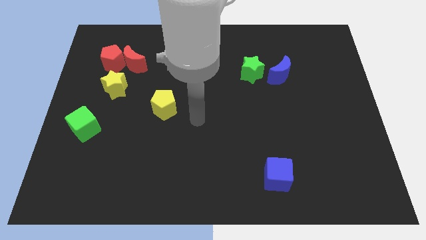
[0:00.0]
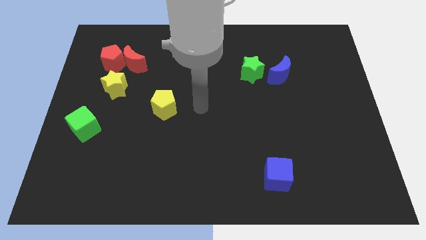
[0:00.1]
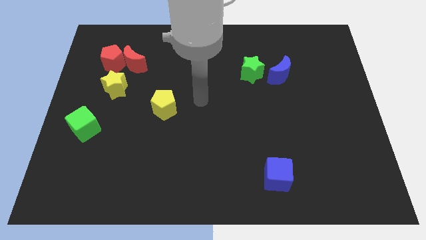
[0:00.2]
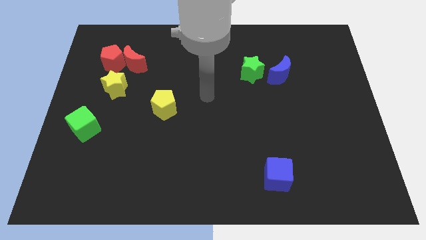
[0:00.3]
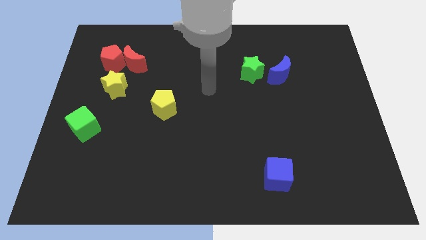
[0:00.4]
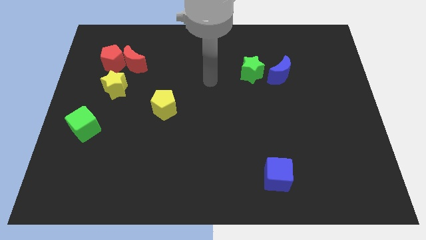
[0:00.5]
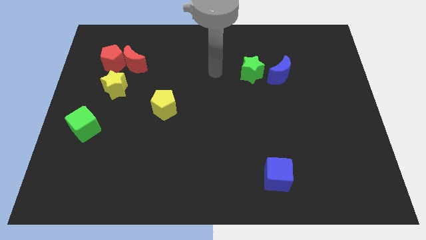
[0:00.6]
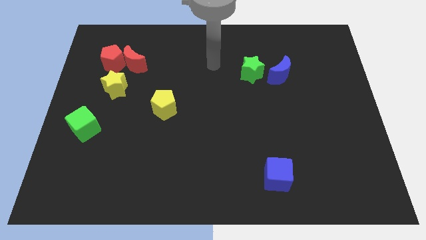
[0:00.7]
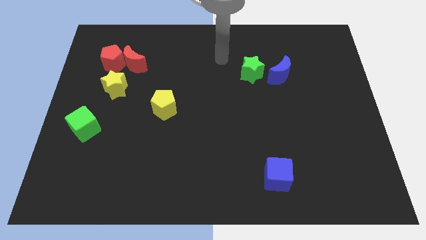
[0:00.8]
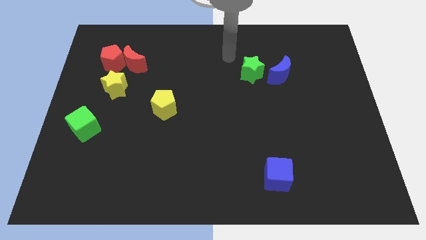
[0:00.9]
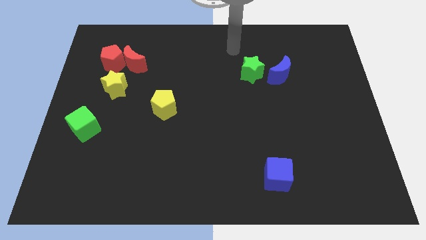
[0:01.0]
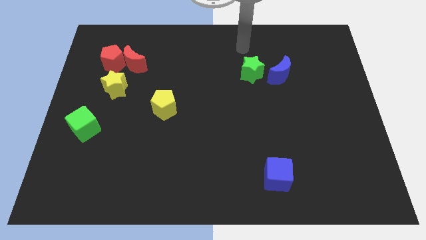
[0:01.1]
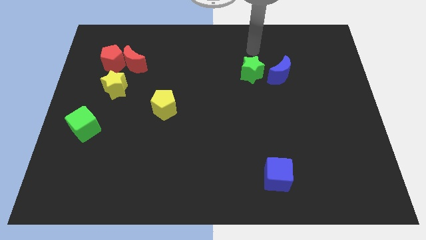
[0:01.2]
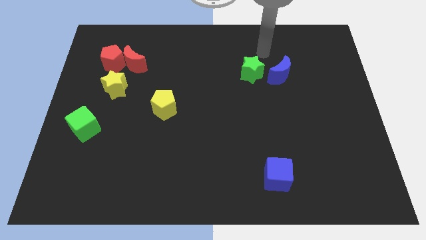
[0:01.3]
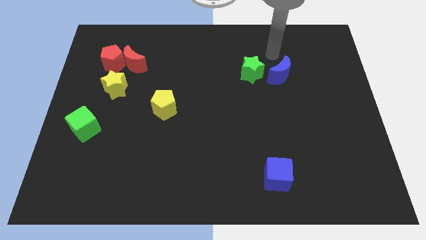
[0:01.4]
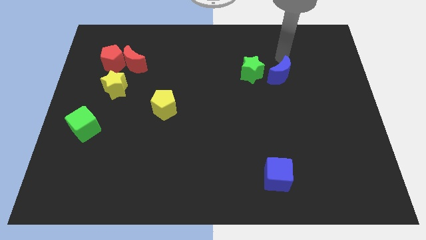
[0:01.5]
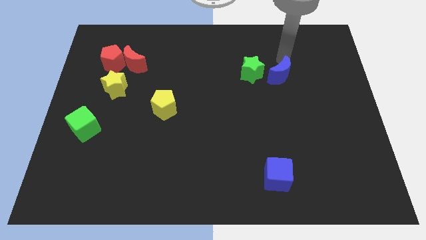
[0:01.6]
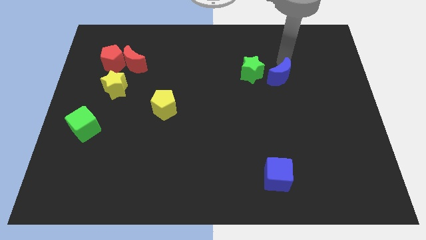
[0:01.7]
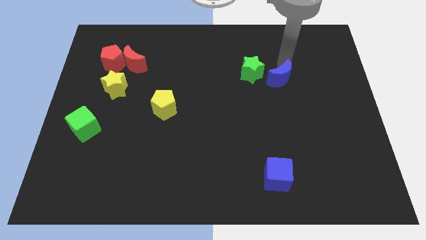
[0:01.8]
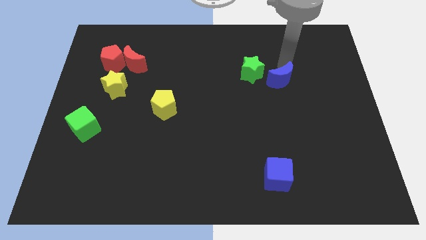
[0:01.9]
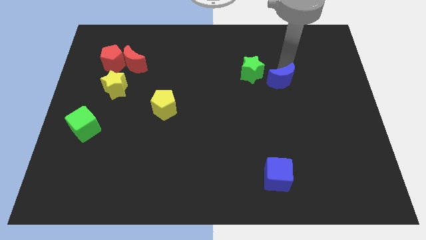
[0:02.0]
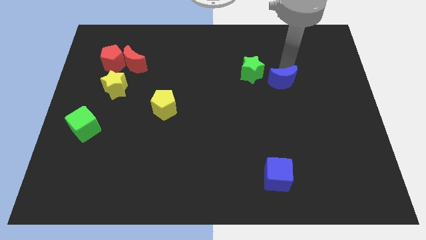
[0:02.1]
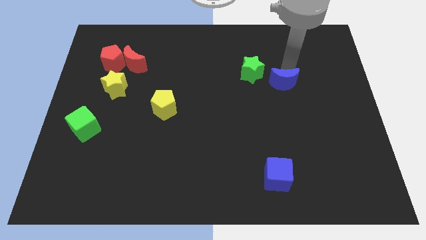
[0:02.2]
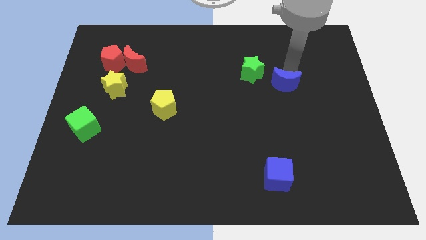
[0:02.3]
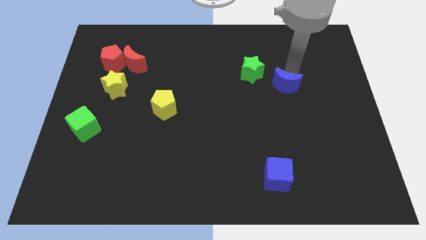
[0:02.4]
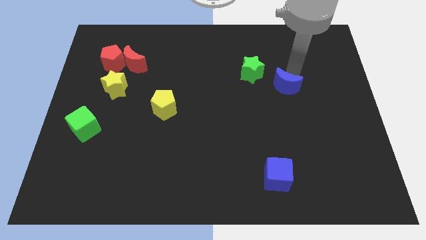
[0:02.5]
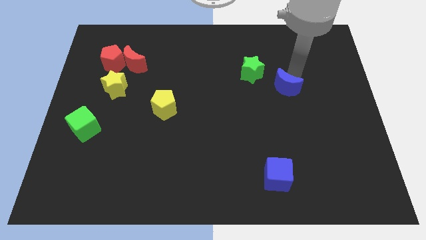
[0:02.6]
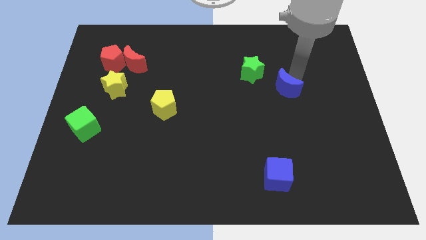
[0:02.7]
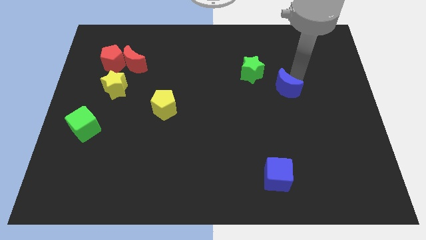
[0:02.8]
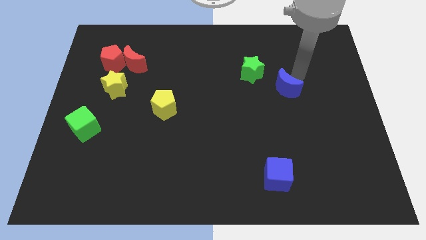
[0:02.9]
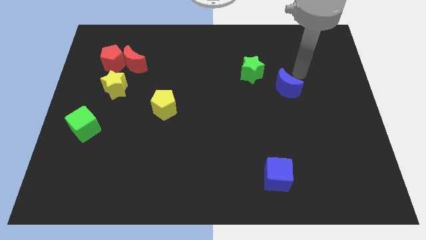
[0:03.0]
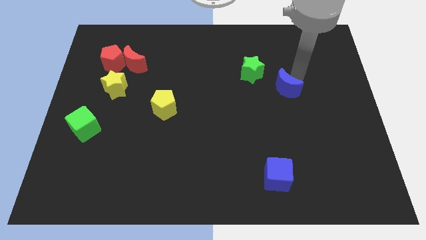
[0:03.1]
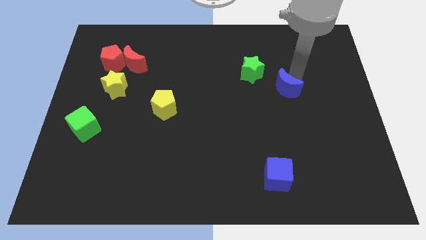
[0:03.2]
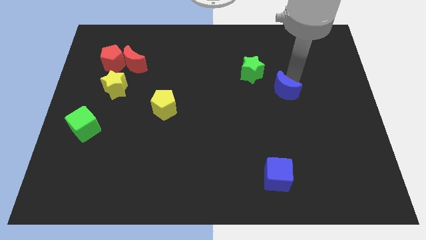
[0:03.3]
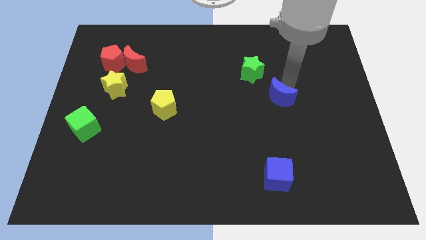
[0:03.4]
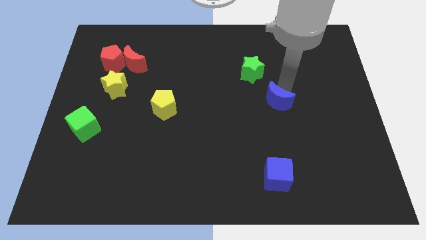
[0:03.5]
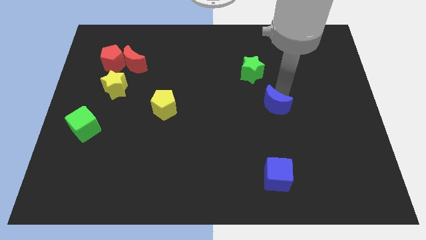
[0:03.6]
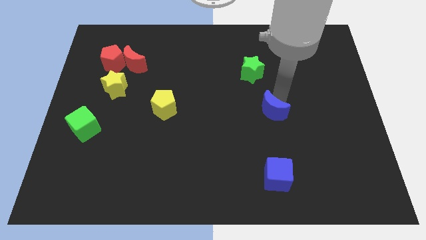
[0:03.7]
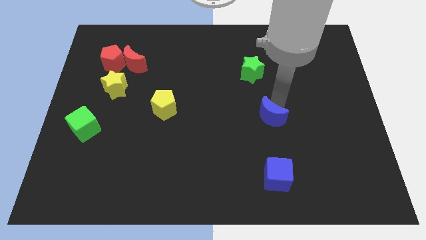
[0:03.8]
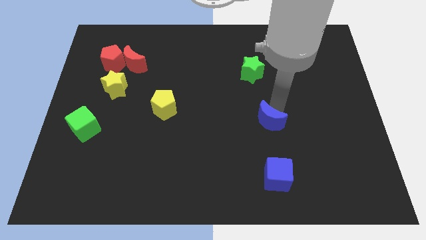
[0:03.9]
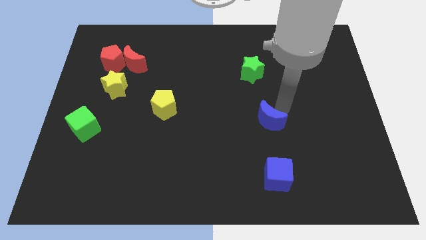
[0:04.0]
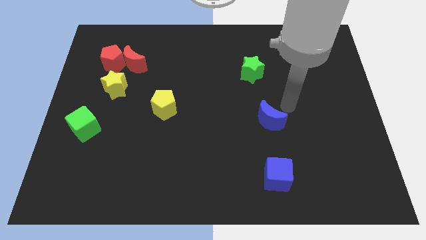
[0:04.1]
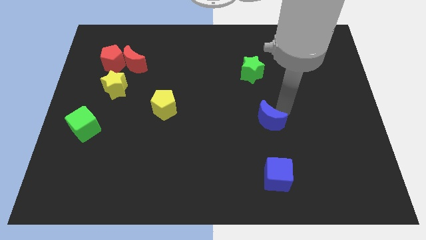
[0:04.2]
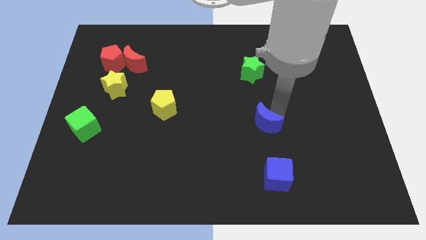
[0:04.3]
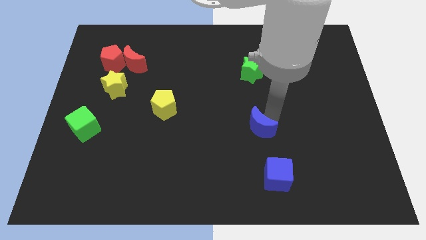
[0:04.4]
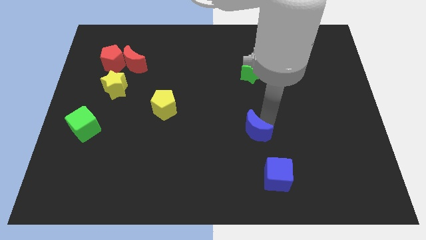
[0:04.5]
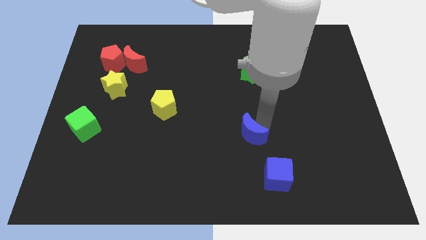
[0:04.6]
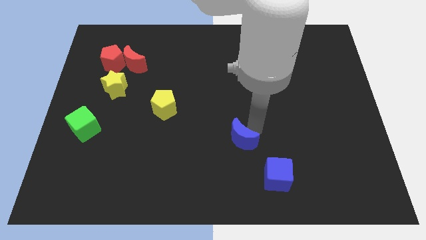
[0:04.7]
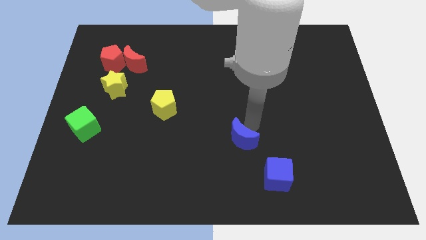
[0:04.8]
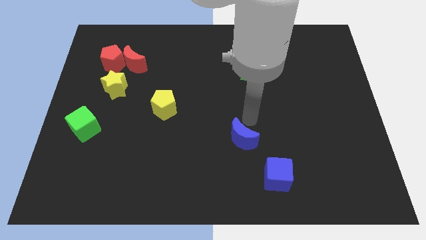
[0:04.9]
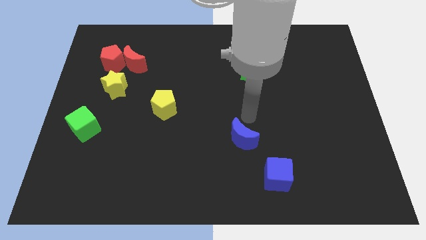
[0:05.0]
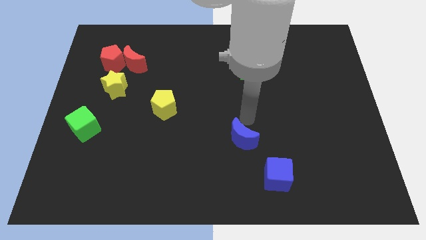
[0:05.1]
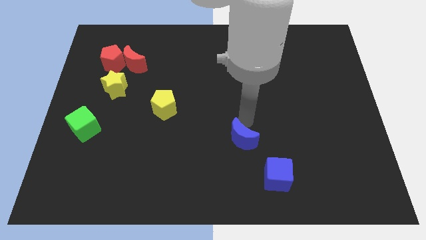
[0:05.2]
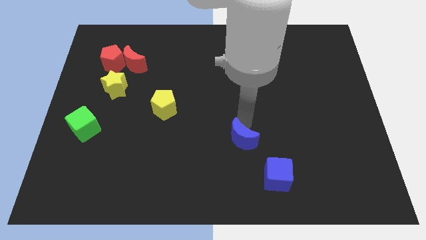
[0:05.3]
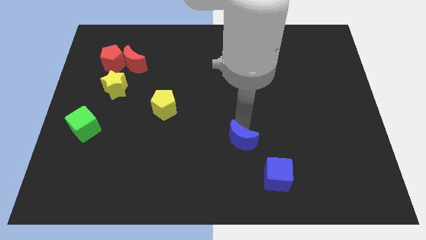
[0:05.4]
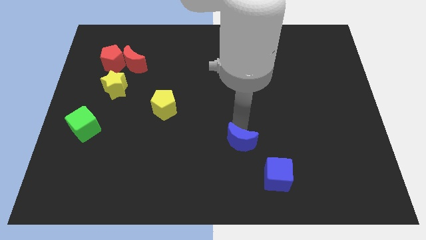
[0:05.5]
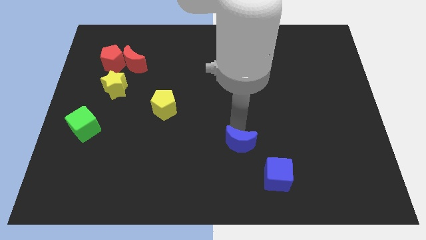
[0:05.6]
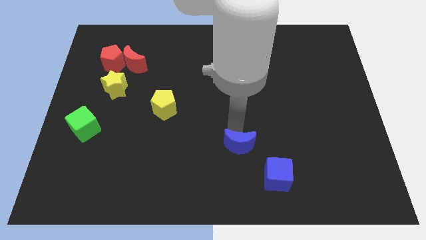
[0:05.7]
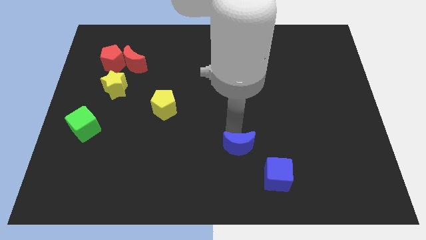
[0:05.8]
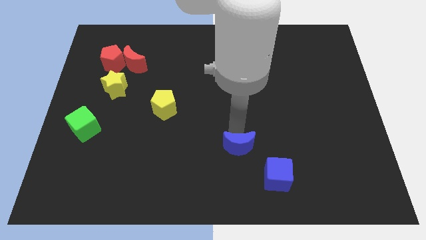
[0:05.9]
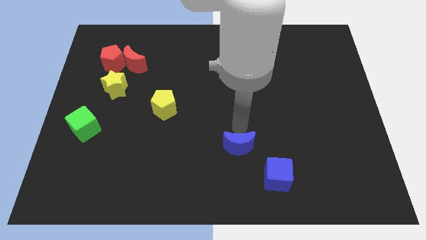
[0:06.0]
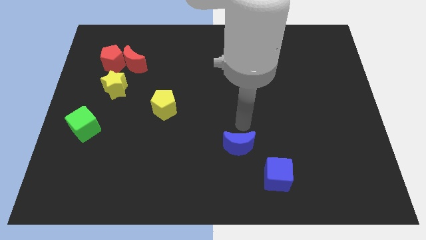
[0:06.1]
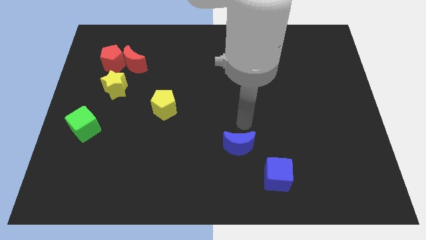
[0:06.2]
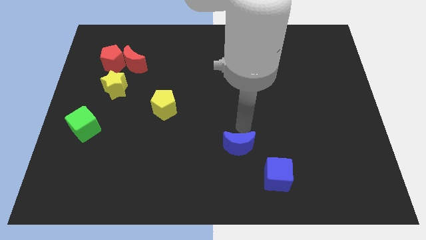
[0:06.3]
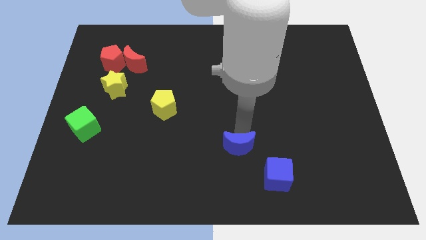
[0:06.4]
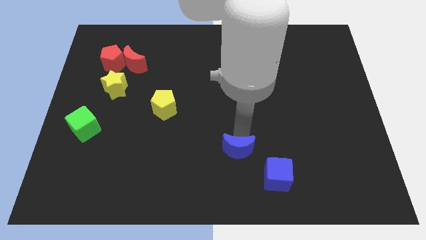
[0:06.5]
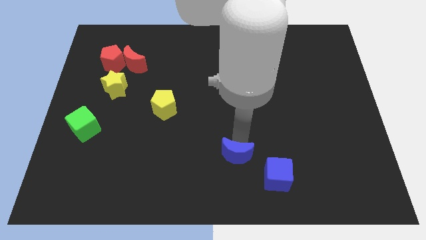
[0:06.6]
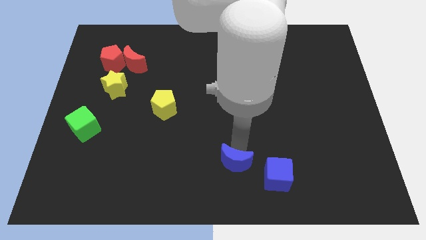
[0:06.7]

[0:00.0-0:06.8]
slide the blue moon left of the blue cube

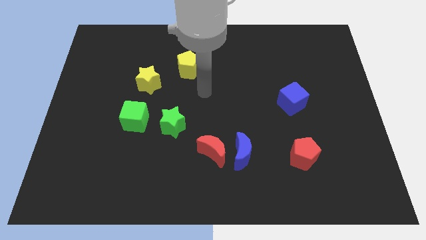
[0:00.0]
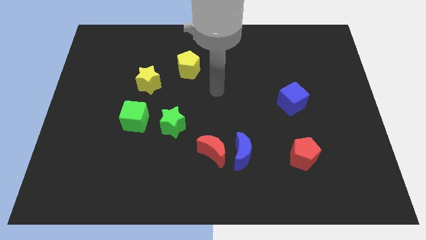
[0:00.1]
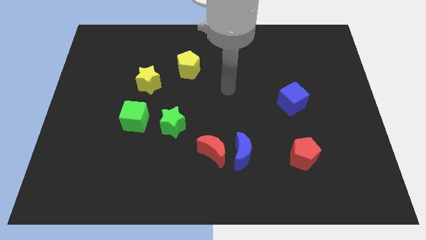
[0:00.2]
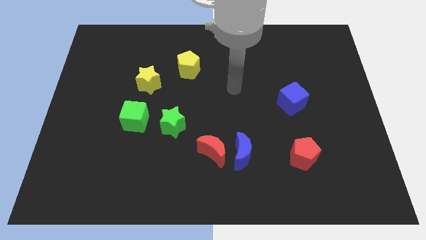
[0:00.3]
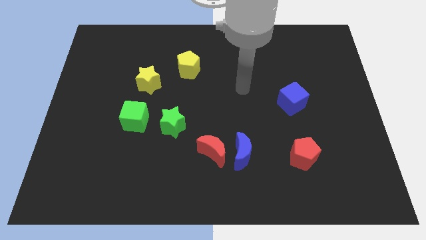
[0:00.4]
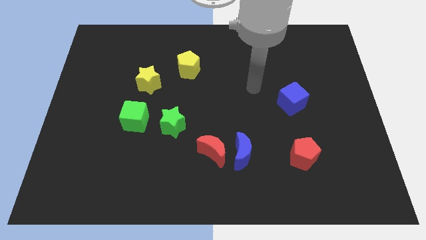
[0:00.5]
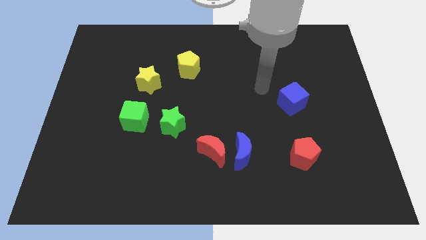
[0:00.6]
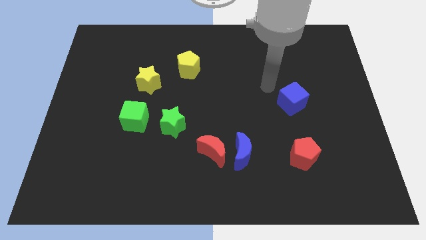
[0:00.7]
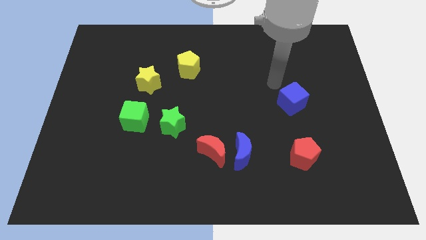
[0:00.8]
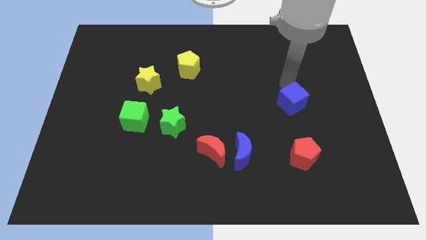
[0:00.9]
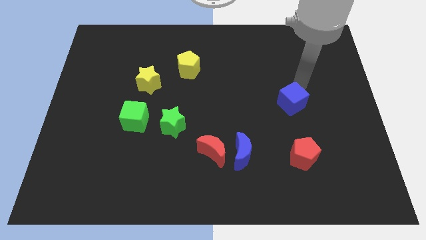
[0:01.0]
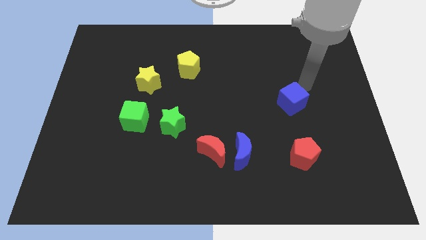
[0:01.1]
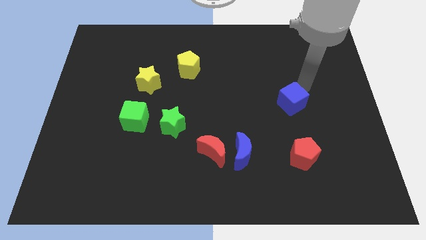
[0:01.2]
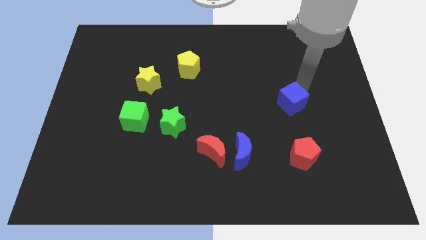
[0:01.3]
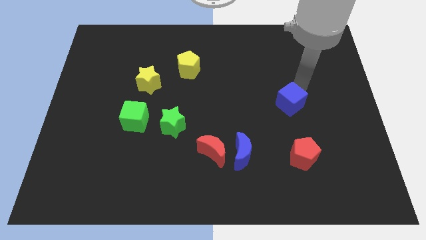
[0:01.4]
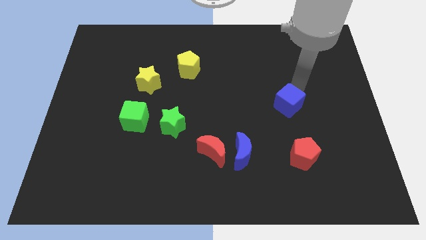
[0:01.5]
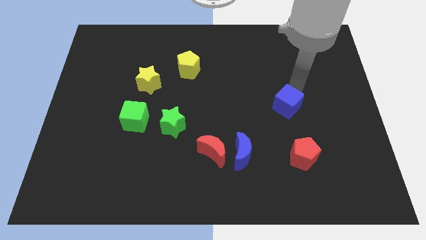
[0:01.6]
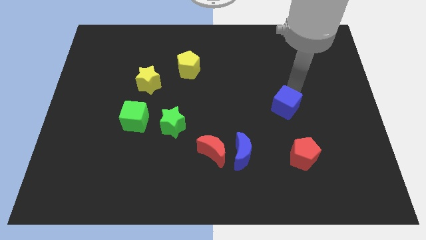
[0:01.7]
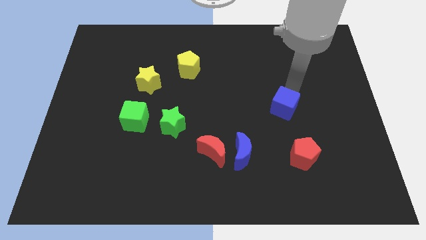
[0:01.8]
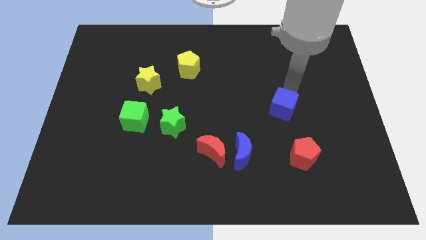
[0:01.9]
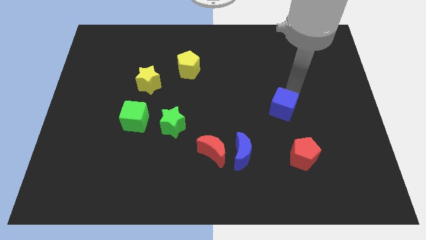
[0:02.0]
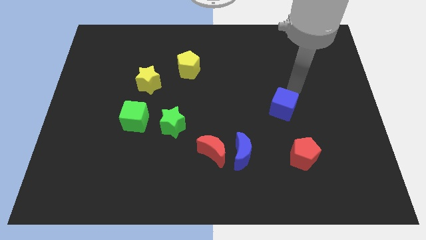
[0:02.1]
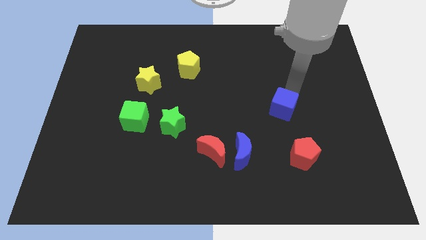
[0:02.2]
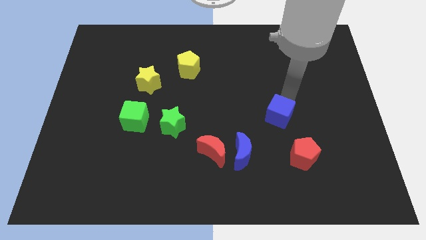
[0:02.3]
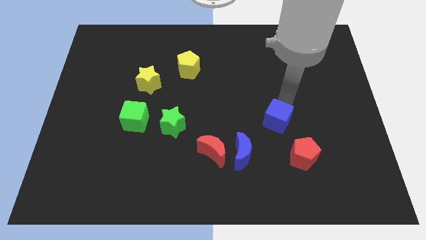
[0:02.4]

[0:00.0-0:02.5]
slide the blue cube diagonally up and to the right of the blue moon
